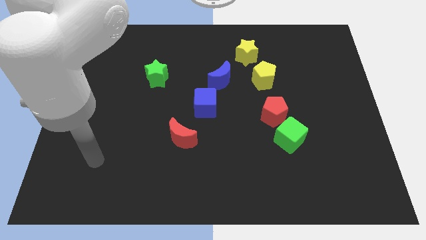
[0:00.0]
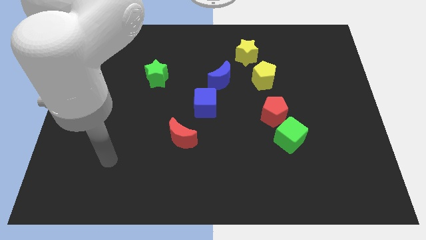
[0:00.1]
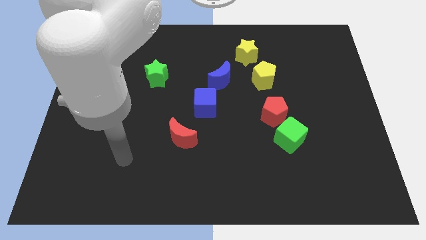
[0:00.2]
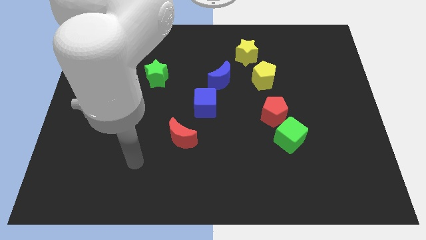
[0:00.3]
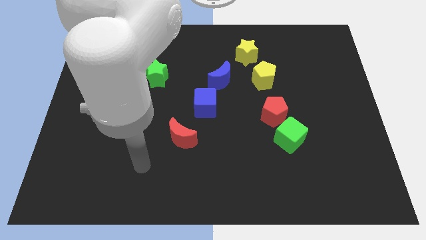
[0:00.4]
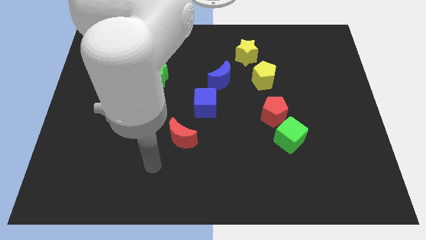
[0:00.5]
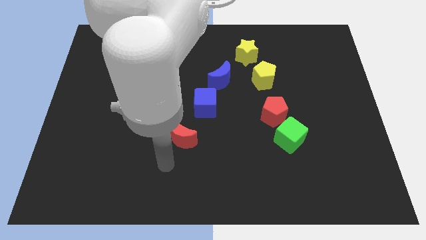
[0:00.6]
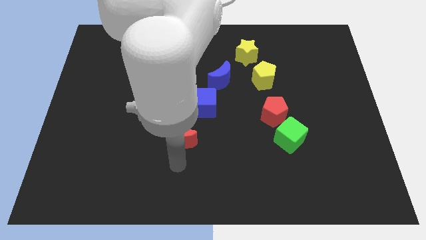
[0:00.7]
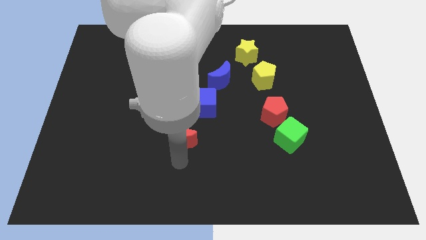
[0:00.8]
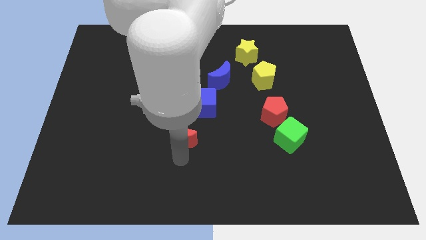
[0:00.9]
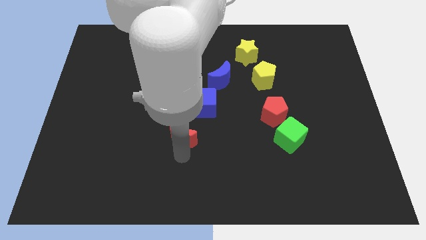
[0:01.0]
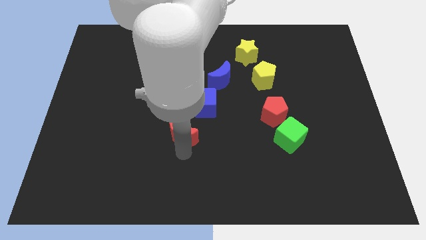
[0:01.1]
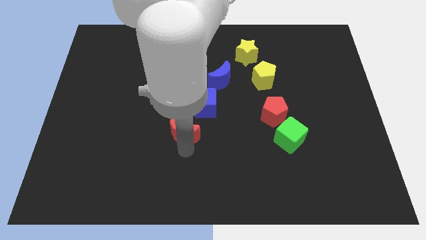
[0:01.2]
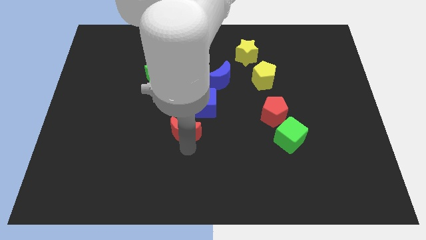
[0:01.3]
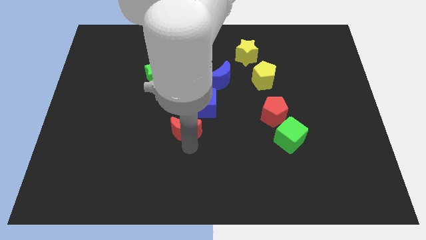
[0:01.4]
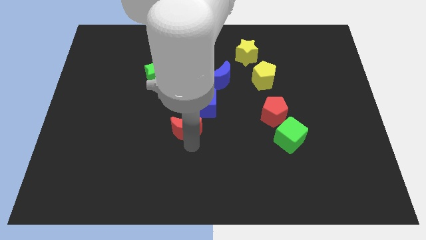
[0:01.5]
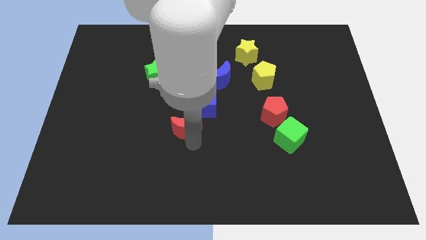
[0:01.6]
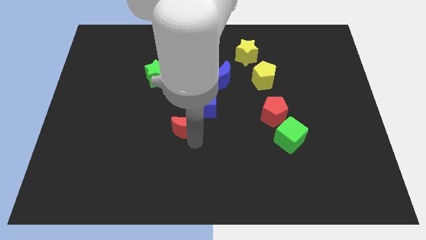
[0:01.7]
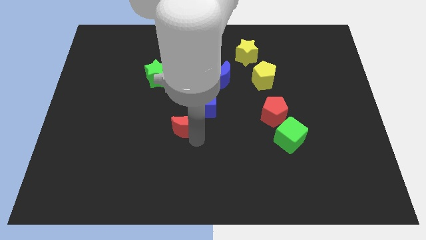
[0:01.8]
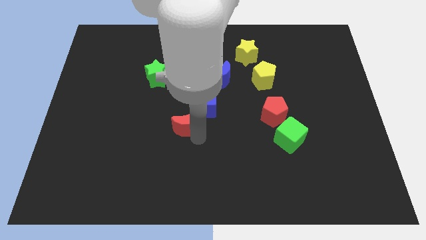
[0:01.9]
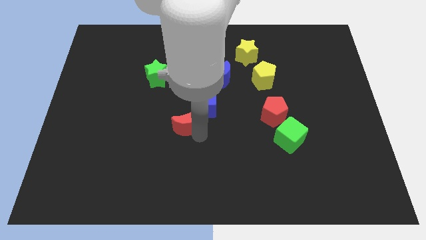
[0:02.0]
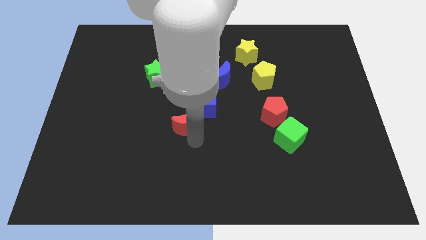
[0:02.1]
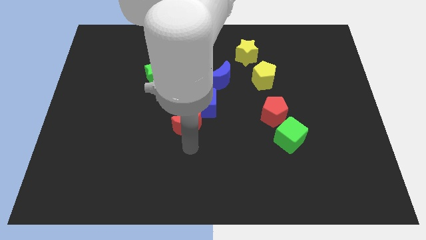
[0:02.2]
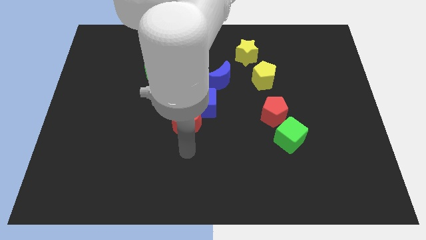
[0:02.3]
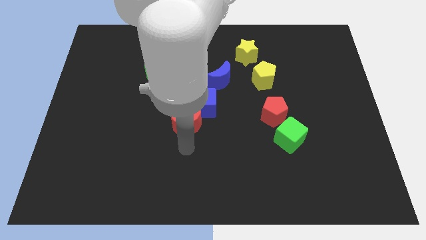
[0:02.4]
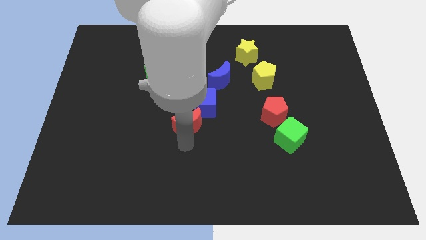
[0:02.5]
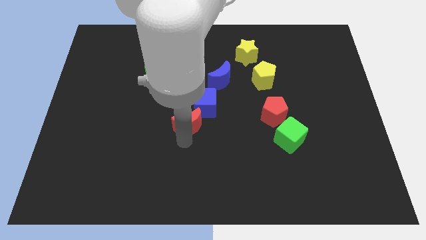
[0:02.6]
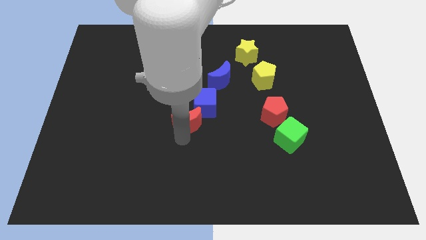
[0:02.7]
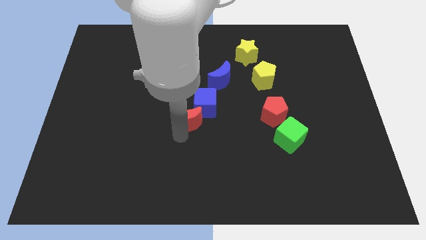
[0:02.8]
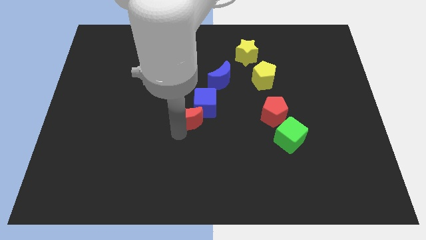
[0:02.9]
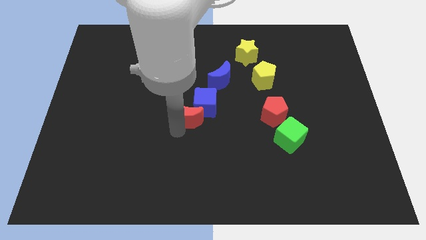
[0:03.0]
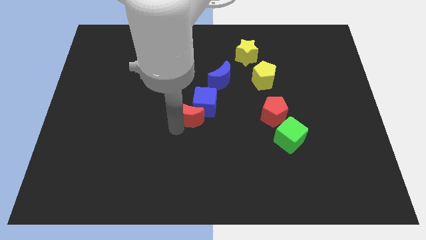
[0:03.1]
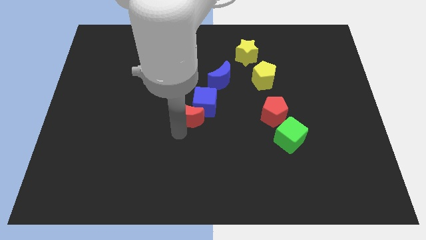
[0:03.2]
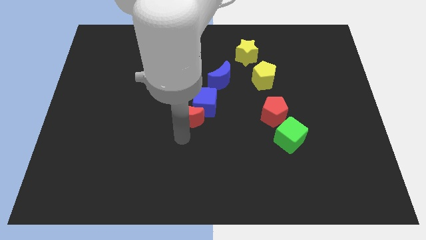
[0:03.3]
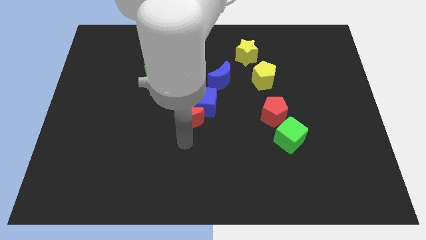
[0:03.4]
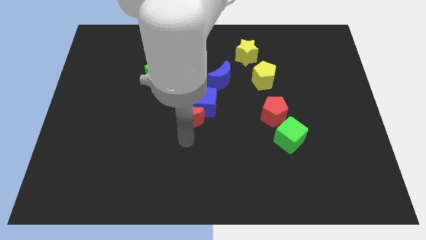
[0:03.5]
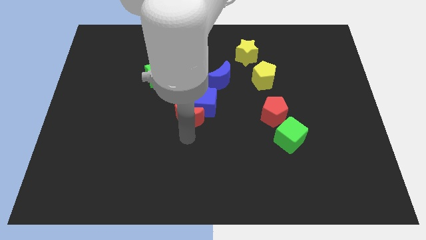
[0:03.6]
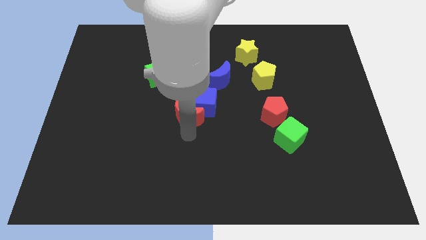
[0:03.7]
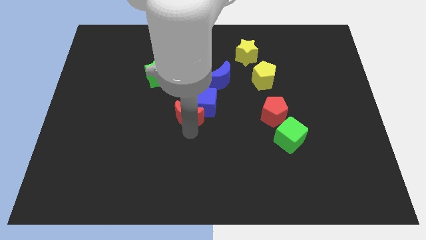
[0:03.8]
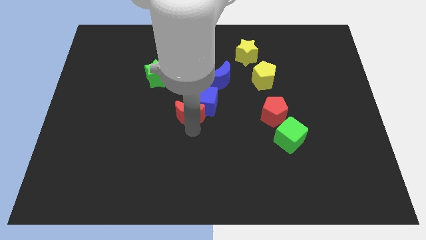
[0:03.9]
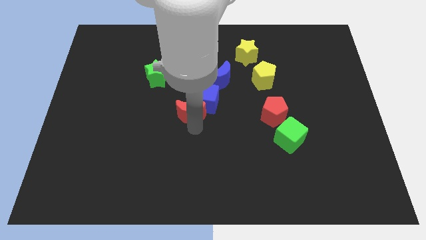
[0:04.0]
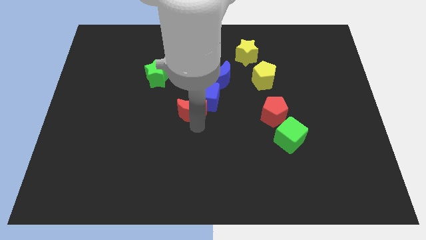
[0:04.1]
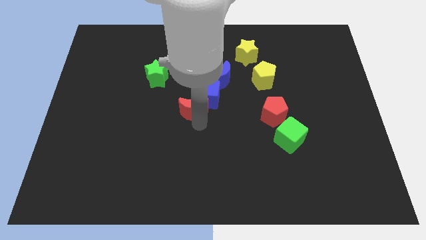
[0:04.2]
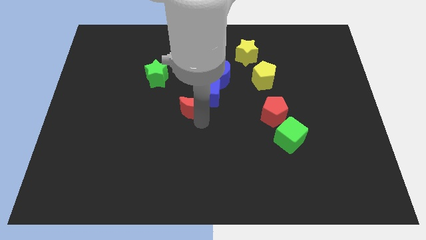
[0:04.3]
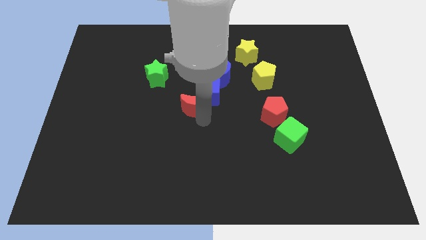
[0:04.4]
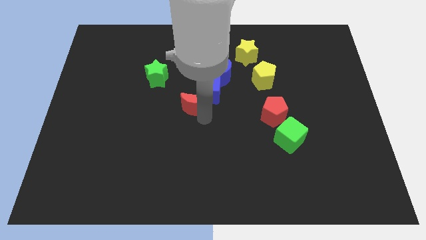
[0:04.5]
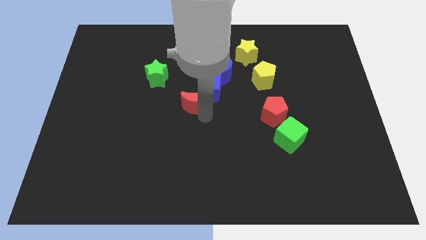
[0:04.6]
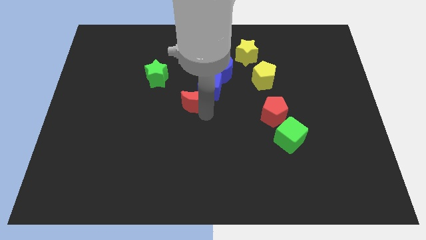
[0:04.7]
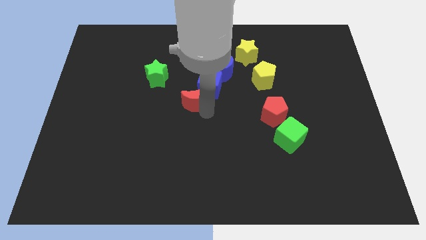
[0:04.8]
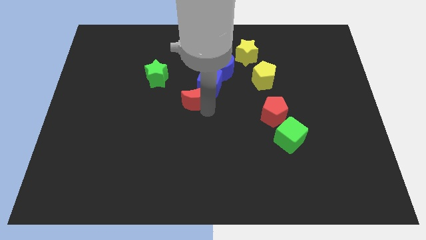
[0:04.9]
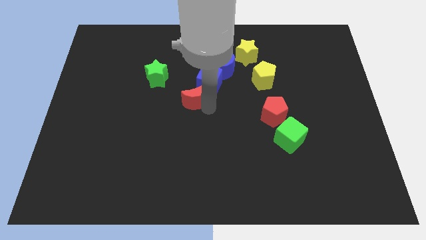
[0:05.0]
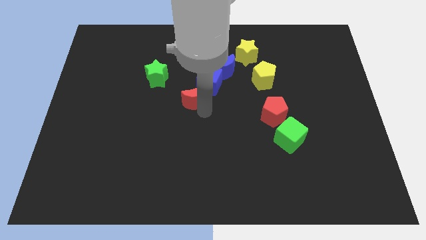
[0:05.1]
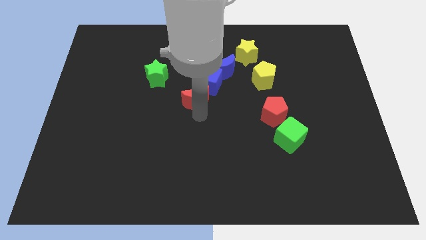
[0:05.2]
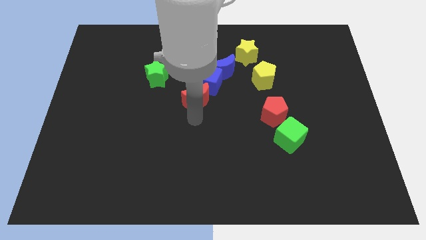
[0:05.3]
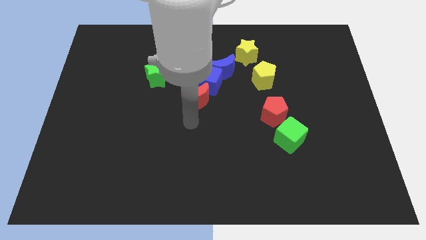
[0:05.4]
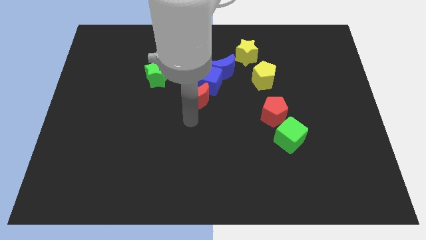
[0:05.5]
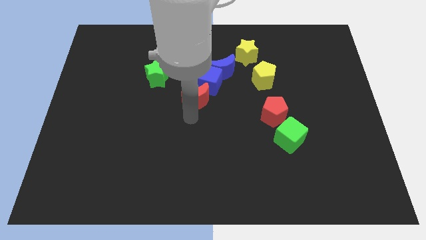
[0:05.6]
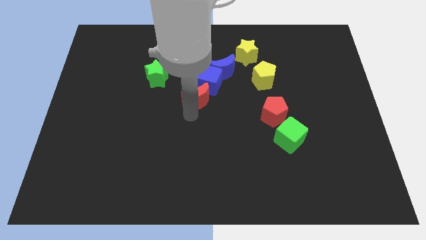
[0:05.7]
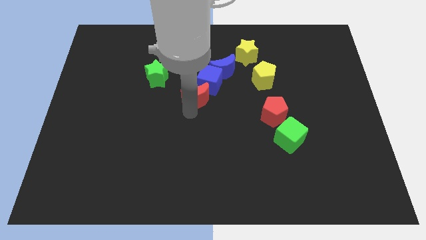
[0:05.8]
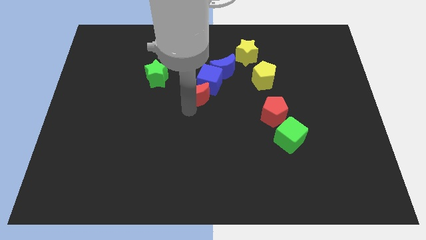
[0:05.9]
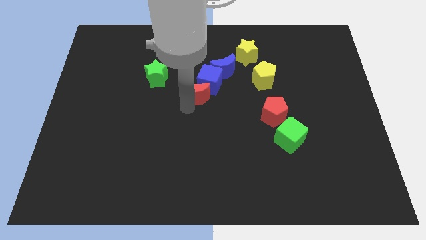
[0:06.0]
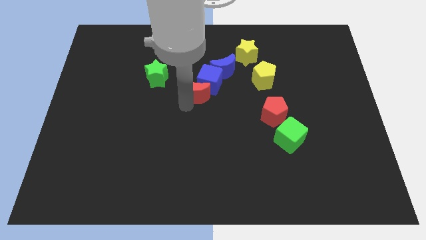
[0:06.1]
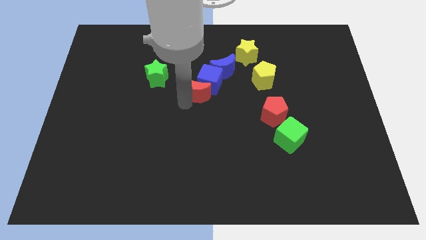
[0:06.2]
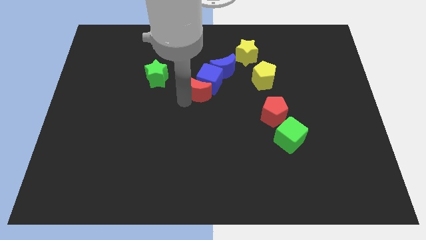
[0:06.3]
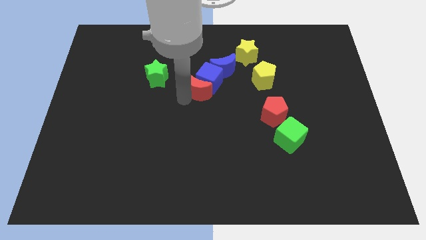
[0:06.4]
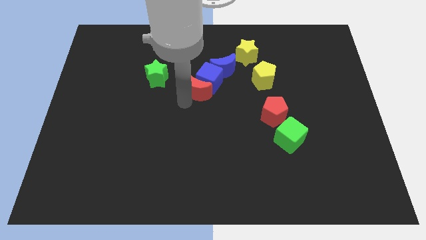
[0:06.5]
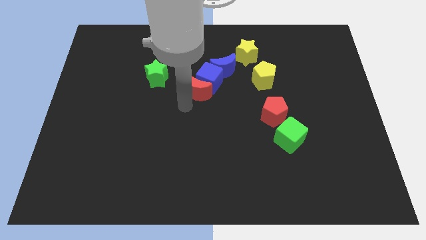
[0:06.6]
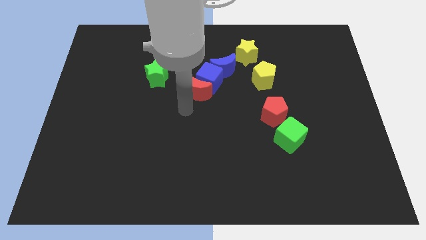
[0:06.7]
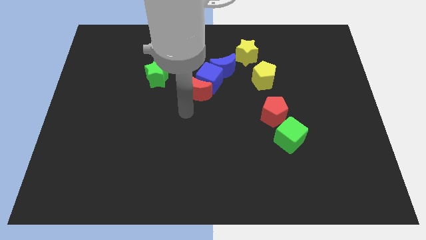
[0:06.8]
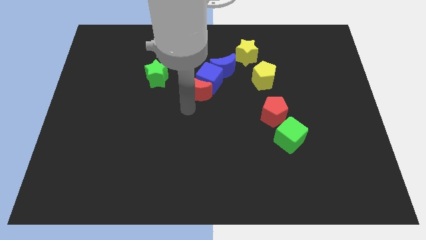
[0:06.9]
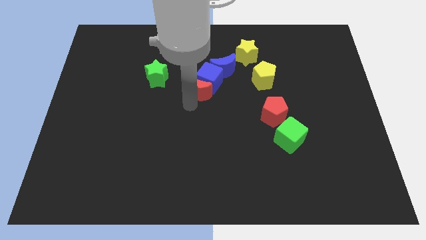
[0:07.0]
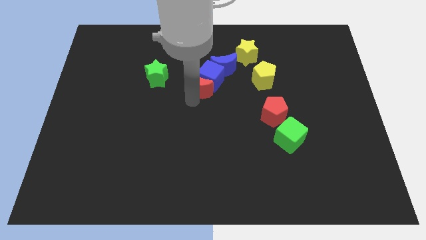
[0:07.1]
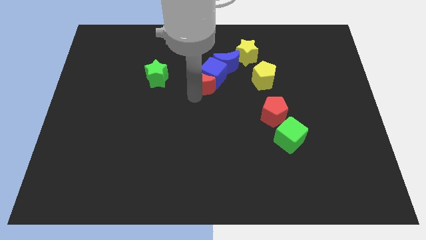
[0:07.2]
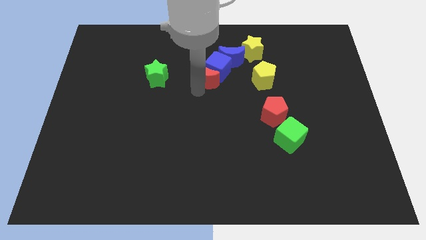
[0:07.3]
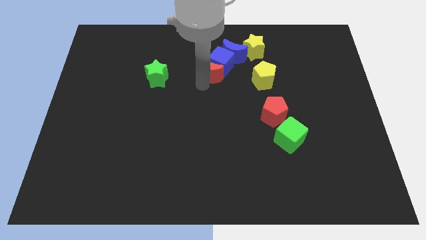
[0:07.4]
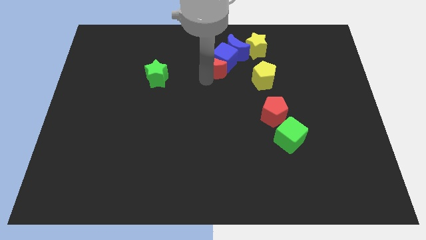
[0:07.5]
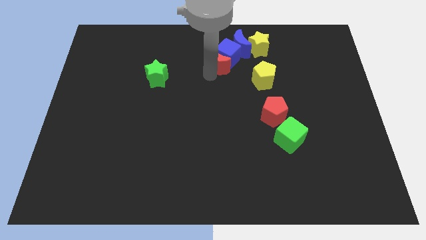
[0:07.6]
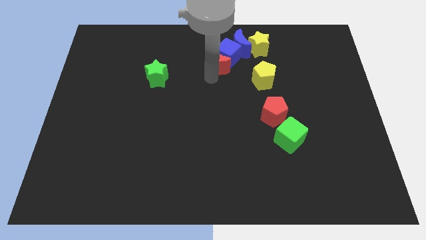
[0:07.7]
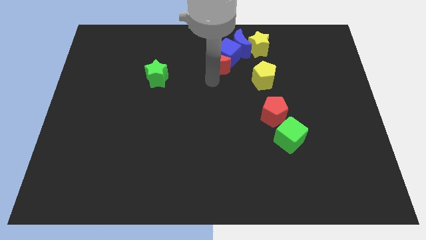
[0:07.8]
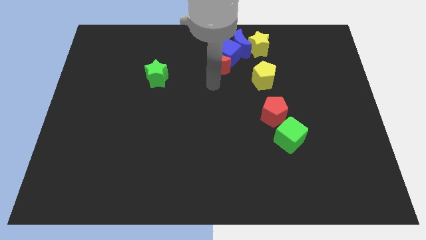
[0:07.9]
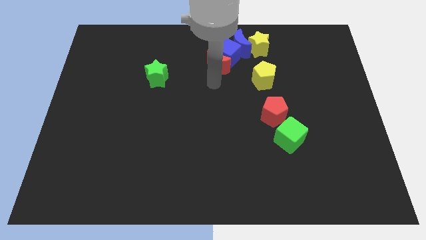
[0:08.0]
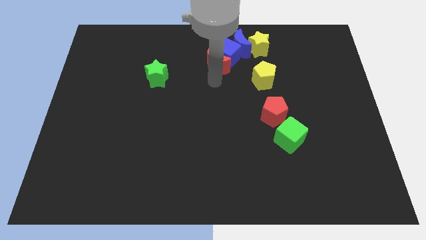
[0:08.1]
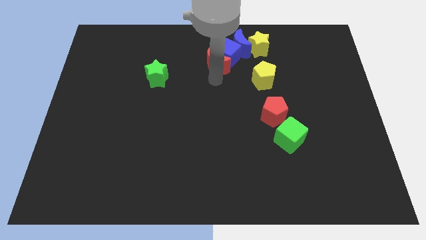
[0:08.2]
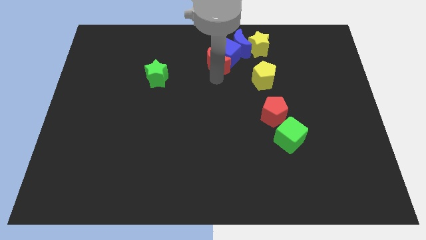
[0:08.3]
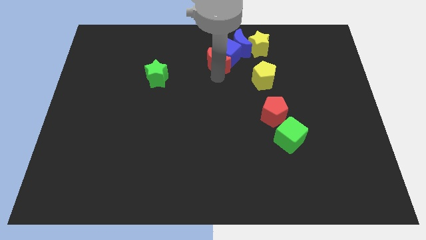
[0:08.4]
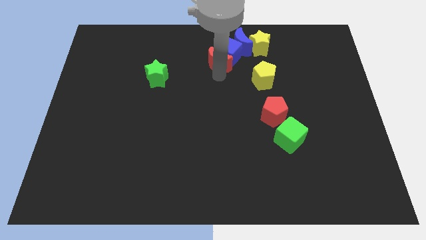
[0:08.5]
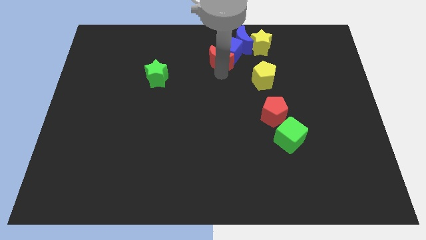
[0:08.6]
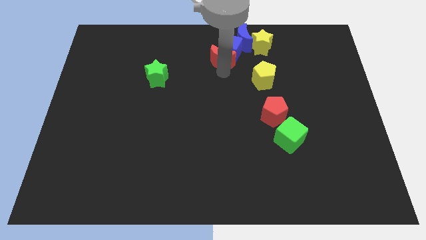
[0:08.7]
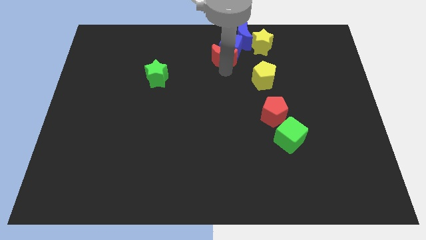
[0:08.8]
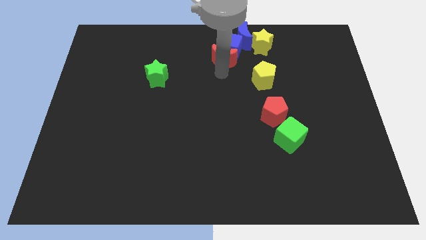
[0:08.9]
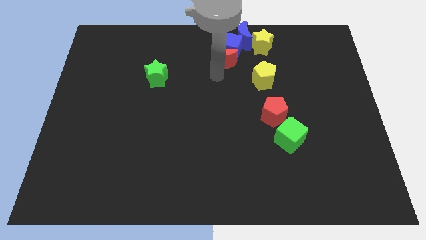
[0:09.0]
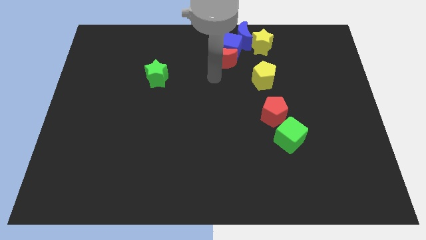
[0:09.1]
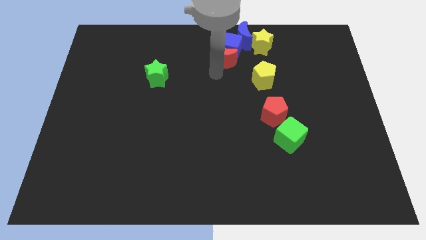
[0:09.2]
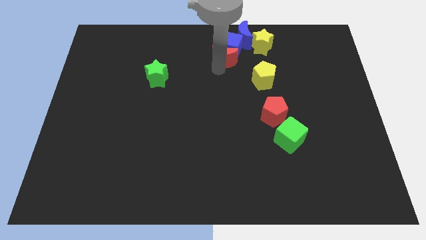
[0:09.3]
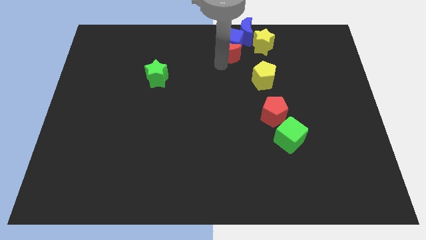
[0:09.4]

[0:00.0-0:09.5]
push the red moon upwards and then to the right
